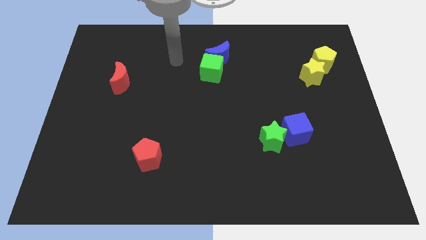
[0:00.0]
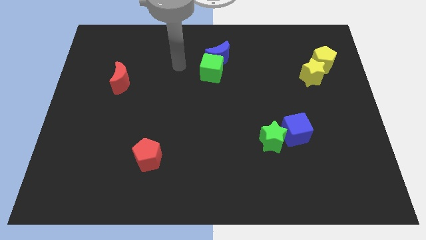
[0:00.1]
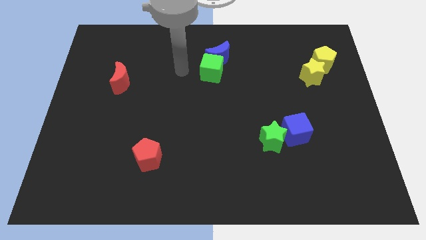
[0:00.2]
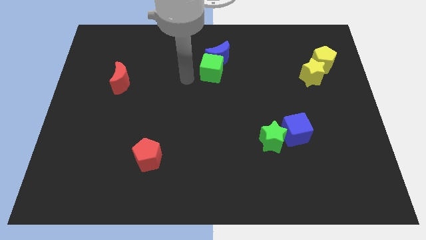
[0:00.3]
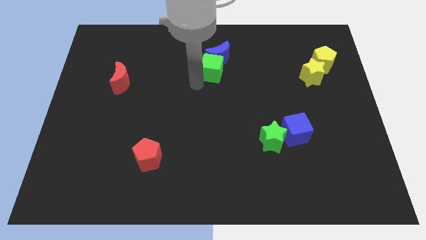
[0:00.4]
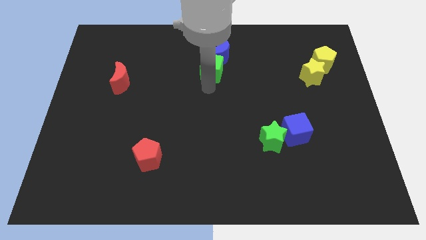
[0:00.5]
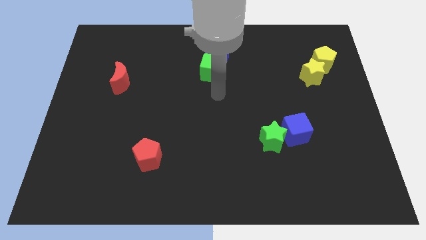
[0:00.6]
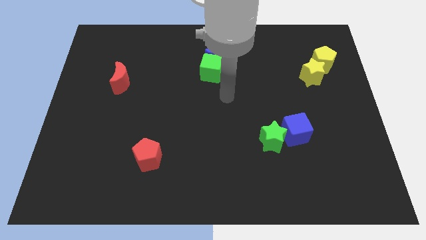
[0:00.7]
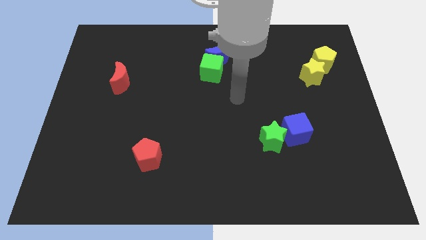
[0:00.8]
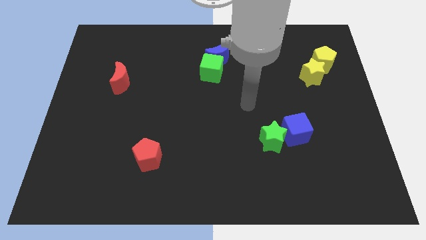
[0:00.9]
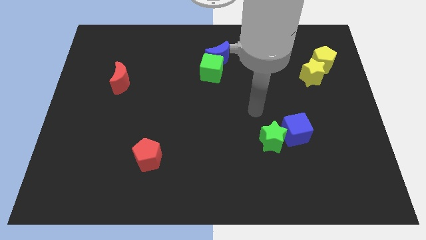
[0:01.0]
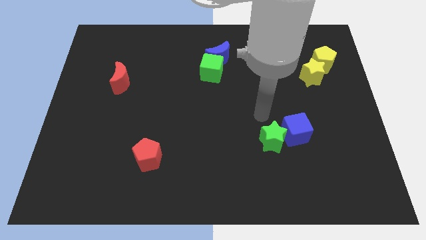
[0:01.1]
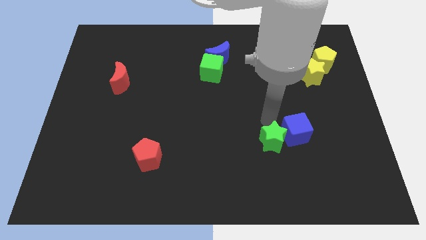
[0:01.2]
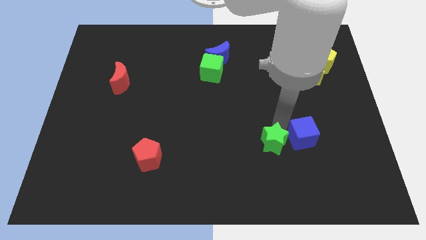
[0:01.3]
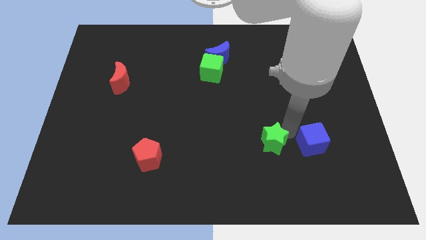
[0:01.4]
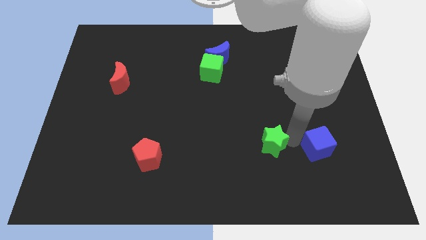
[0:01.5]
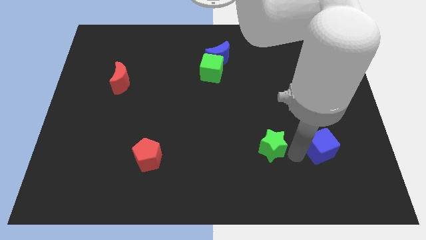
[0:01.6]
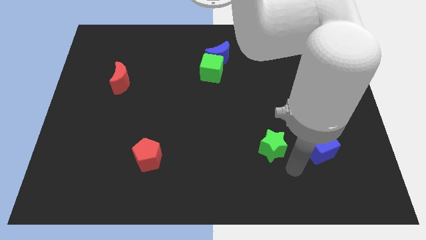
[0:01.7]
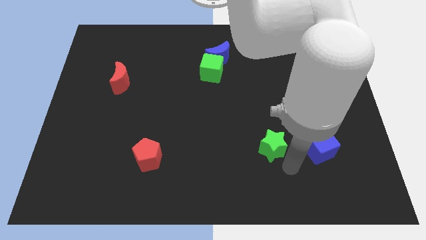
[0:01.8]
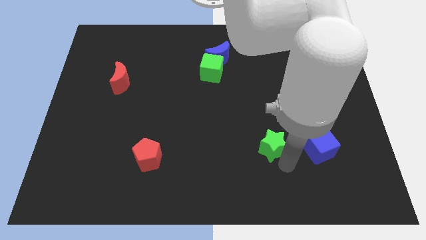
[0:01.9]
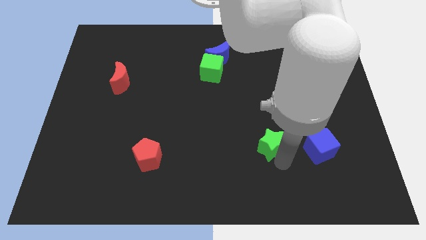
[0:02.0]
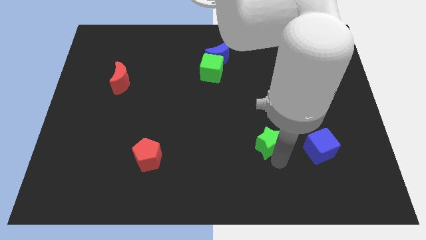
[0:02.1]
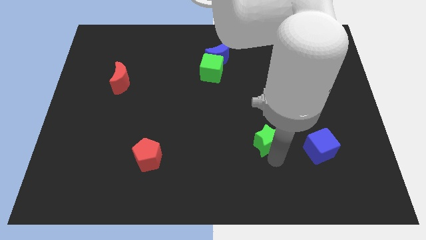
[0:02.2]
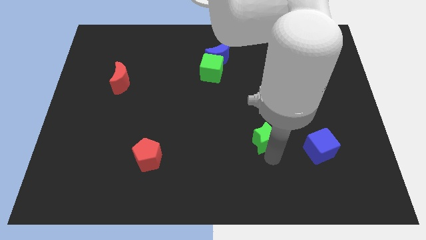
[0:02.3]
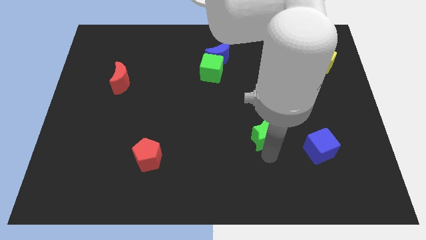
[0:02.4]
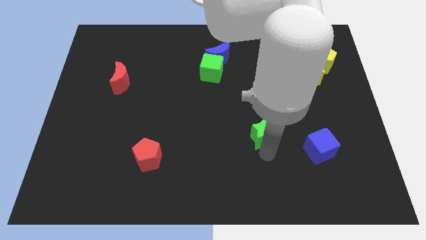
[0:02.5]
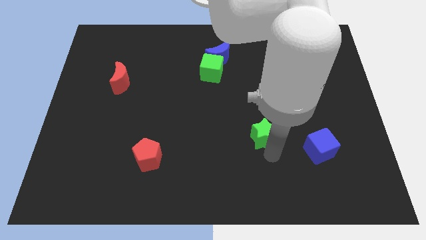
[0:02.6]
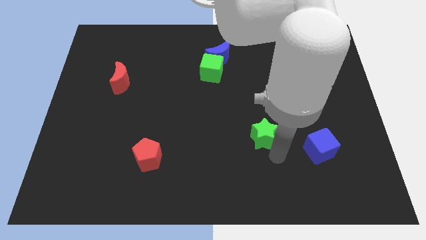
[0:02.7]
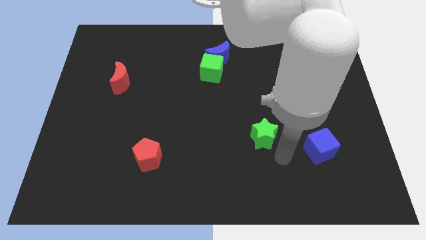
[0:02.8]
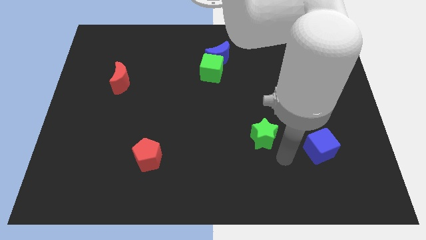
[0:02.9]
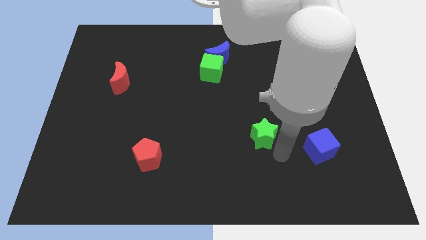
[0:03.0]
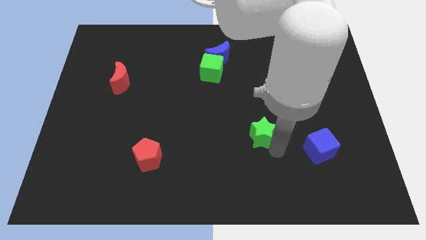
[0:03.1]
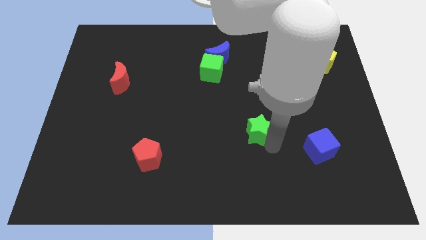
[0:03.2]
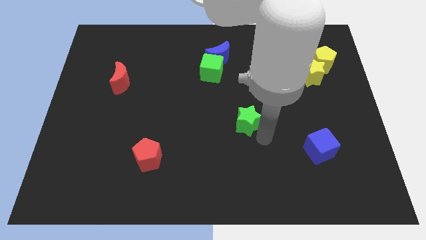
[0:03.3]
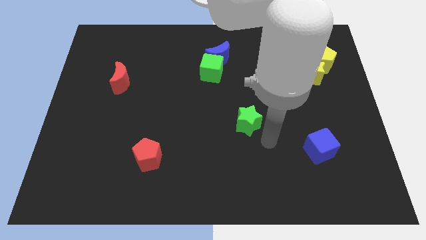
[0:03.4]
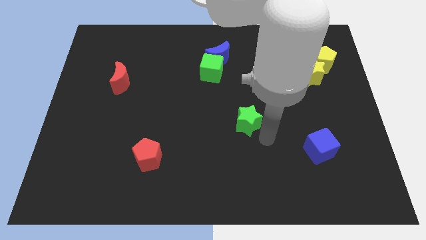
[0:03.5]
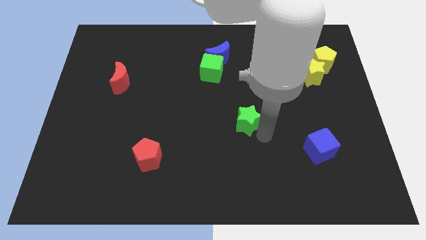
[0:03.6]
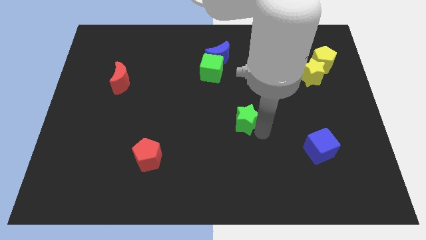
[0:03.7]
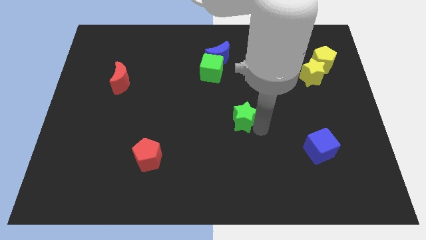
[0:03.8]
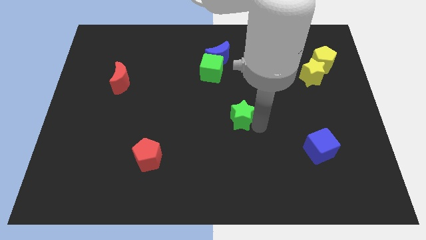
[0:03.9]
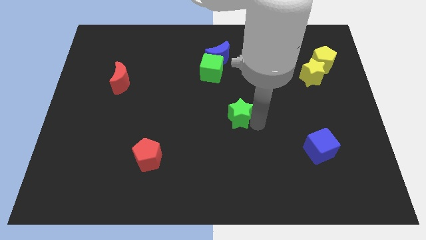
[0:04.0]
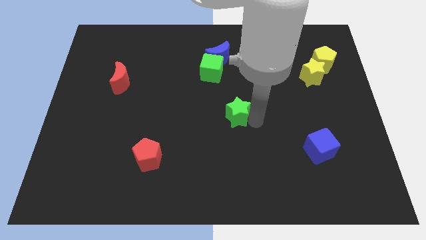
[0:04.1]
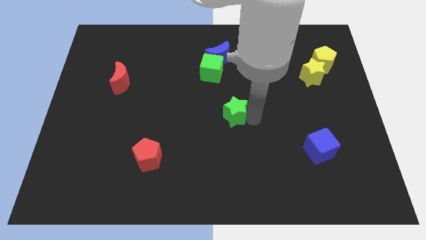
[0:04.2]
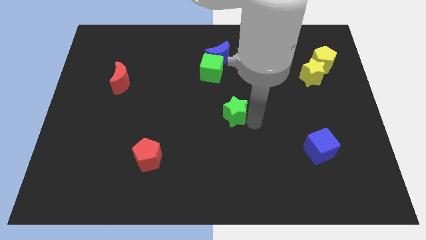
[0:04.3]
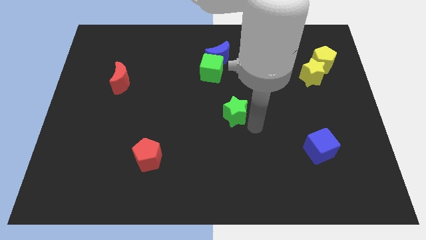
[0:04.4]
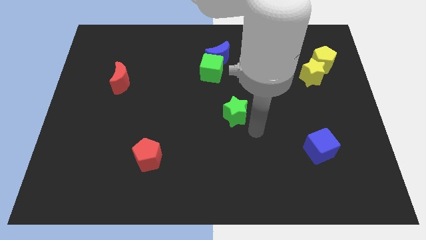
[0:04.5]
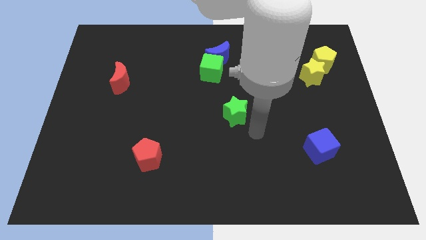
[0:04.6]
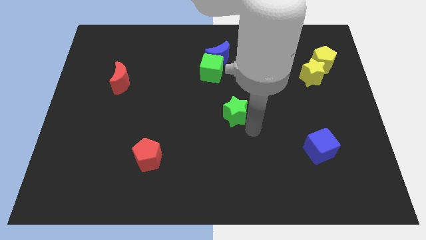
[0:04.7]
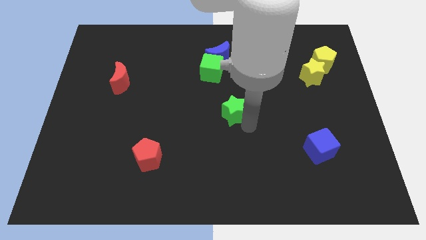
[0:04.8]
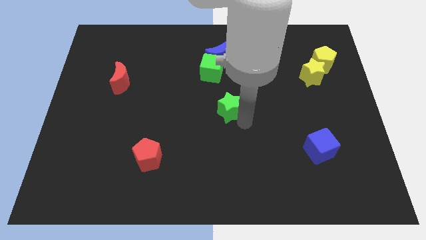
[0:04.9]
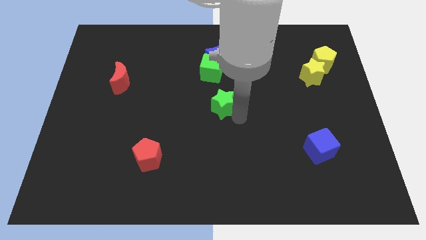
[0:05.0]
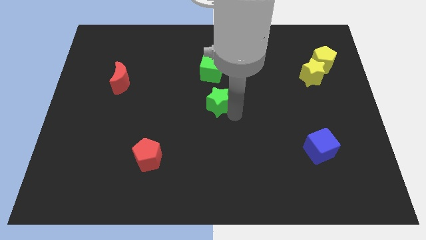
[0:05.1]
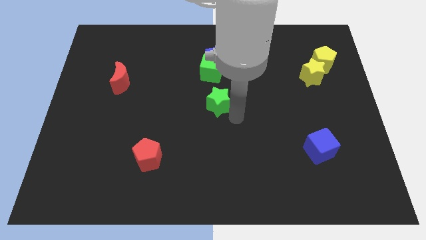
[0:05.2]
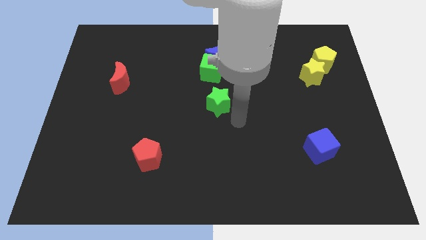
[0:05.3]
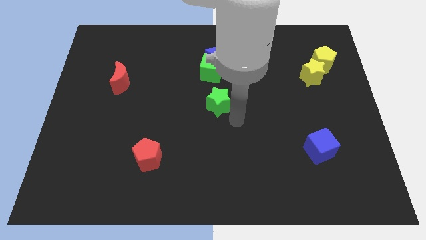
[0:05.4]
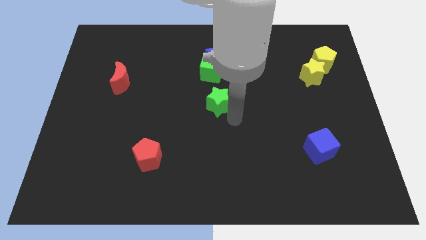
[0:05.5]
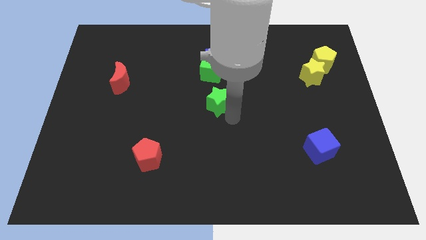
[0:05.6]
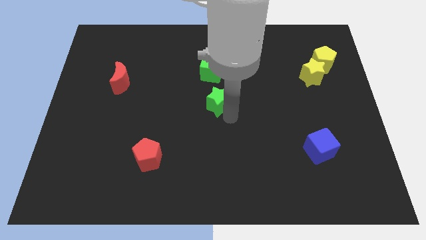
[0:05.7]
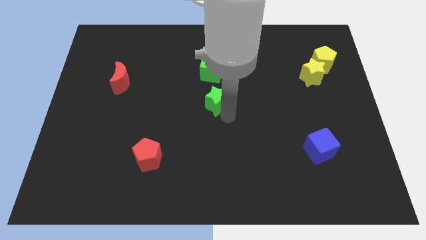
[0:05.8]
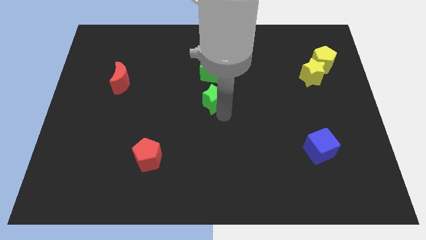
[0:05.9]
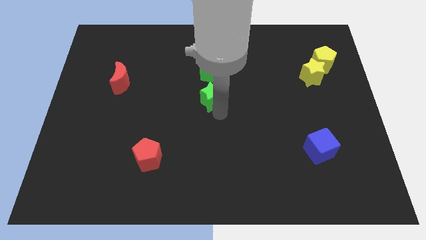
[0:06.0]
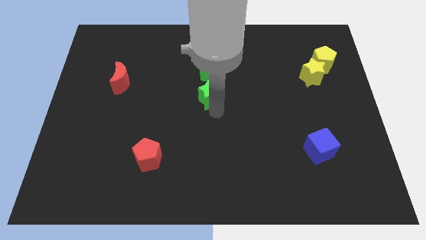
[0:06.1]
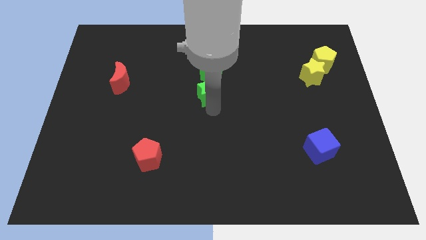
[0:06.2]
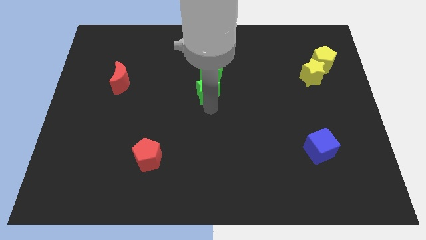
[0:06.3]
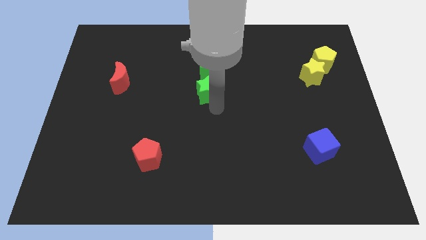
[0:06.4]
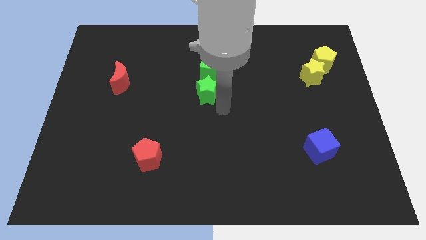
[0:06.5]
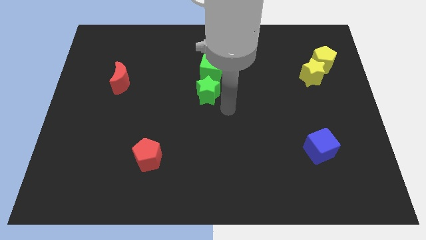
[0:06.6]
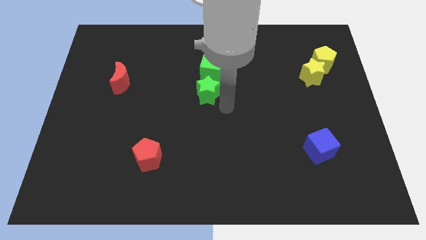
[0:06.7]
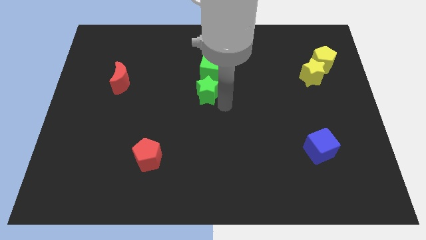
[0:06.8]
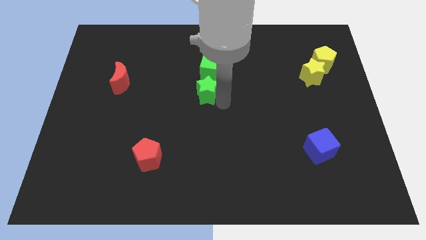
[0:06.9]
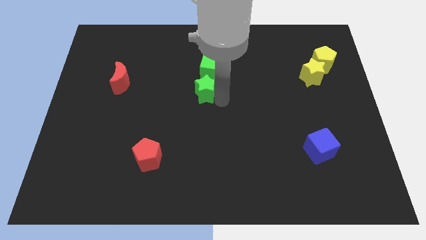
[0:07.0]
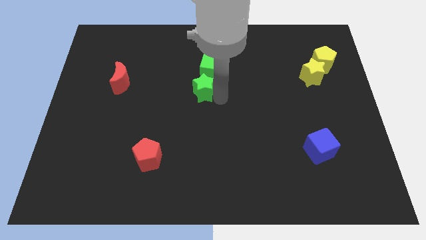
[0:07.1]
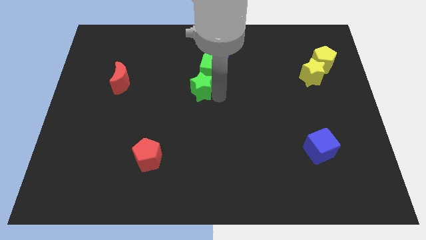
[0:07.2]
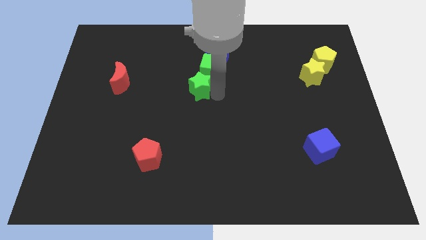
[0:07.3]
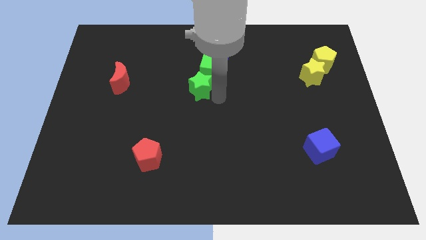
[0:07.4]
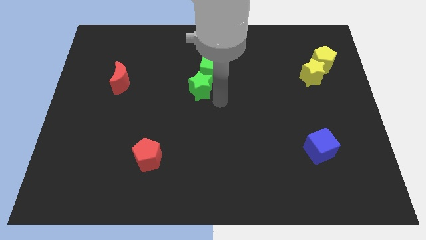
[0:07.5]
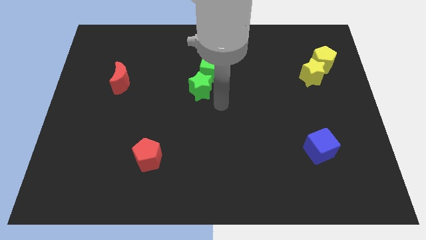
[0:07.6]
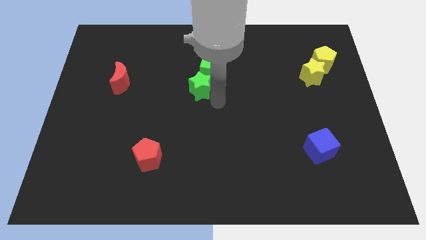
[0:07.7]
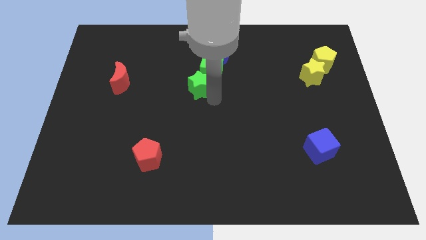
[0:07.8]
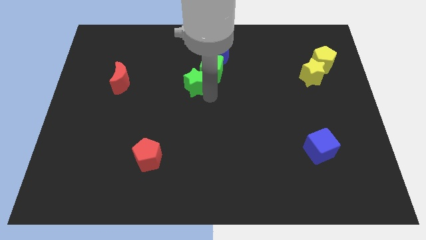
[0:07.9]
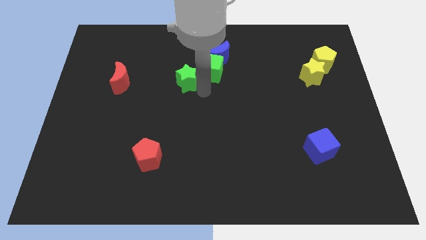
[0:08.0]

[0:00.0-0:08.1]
move the green star to the left side of the green cube
